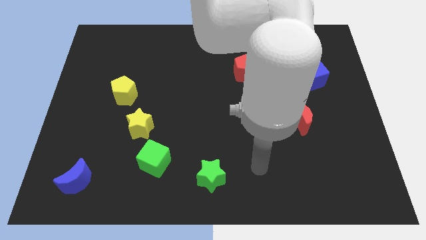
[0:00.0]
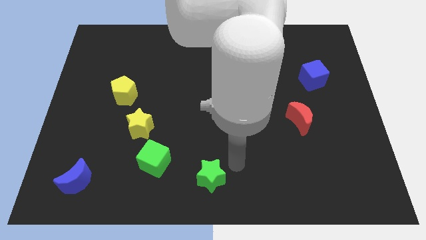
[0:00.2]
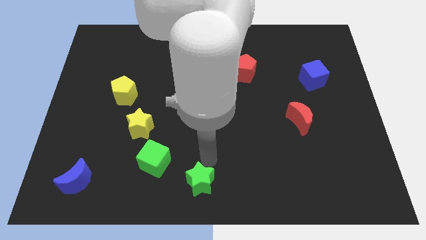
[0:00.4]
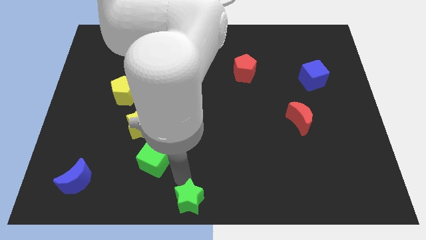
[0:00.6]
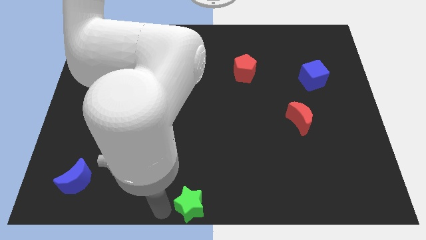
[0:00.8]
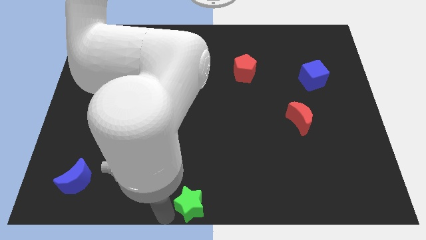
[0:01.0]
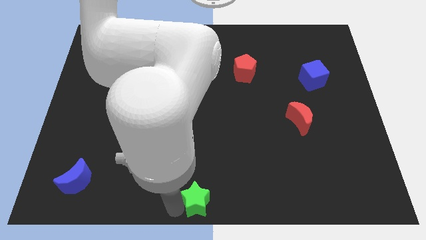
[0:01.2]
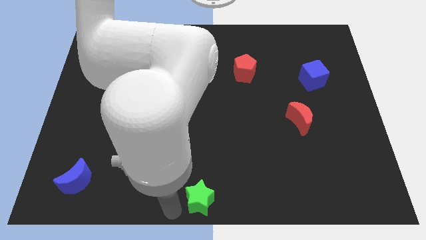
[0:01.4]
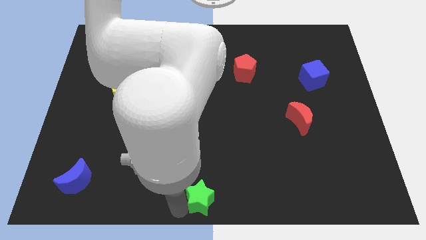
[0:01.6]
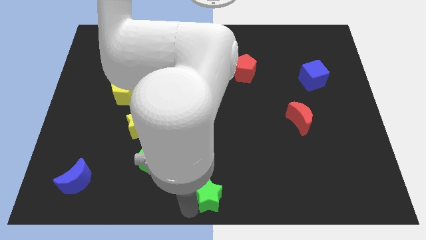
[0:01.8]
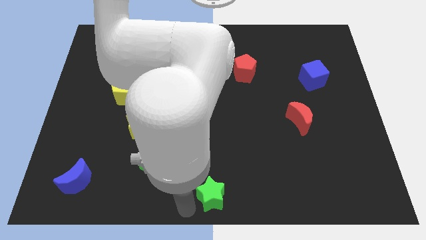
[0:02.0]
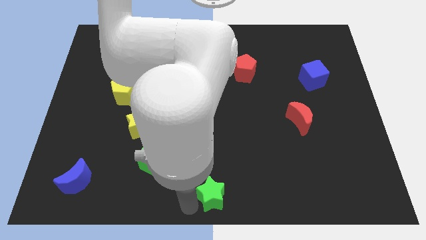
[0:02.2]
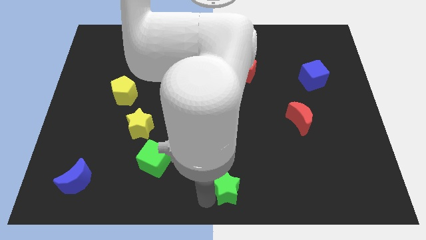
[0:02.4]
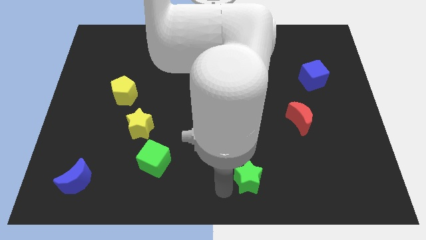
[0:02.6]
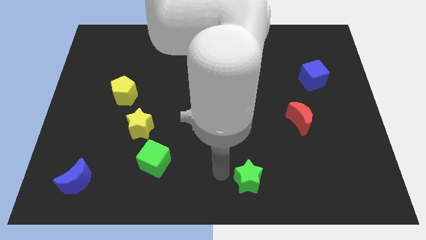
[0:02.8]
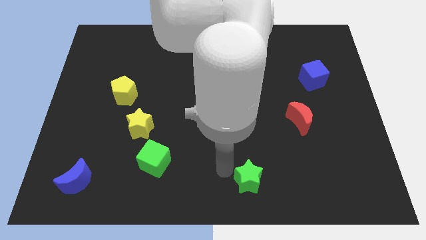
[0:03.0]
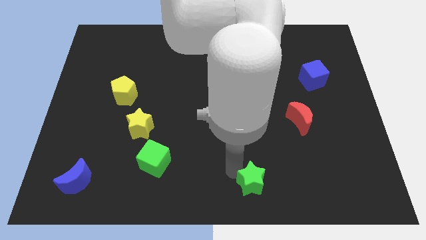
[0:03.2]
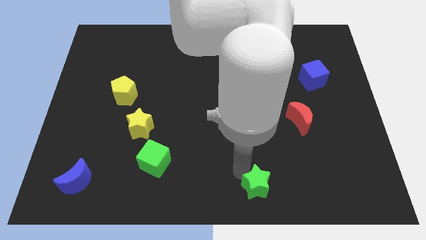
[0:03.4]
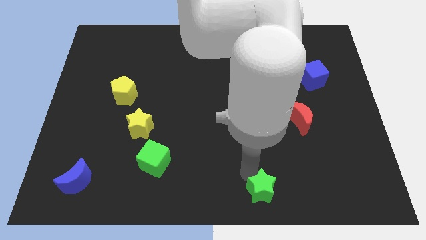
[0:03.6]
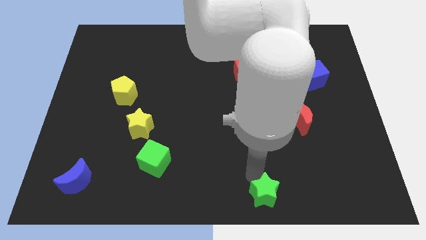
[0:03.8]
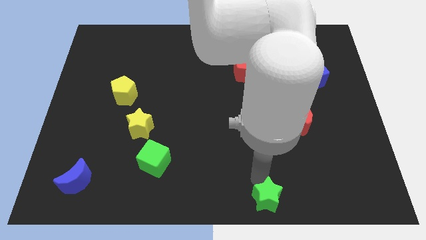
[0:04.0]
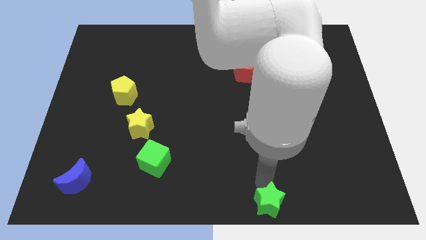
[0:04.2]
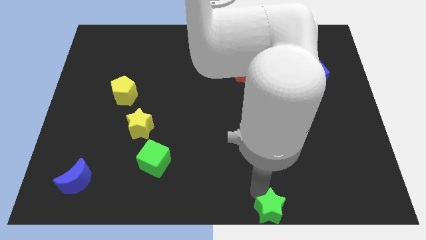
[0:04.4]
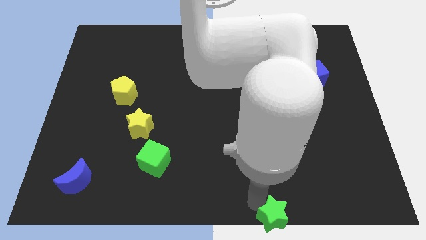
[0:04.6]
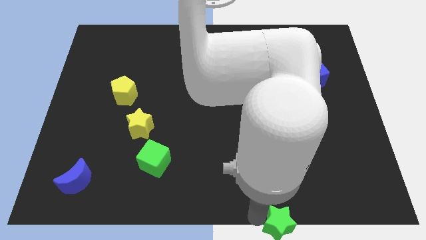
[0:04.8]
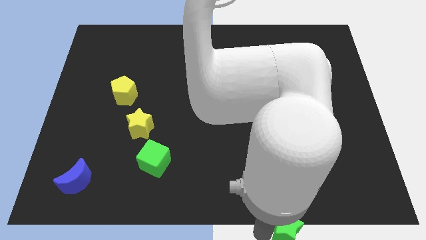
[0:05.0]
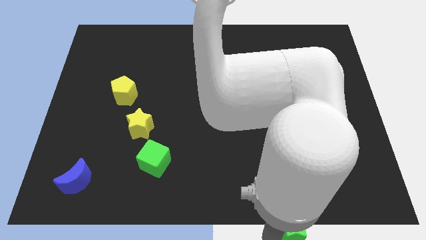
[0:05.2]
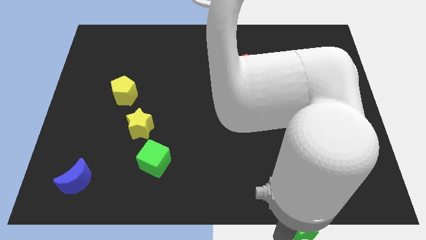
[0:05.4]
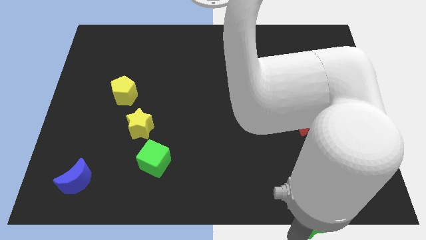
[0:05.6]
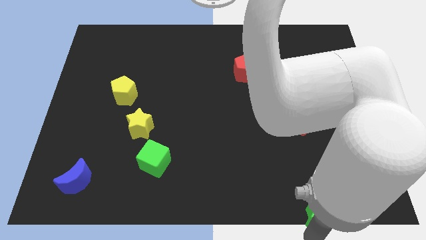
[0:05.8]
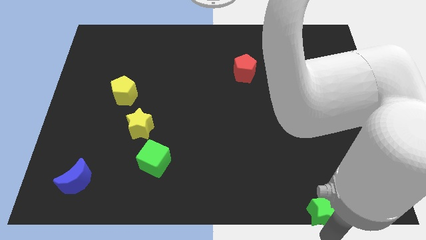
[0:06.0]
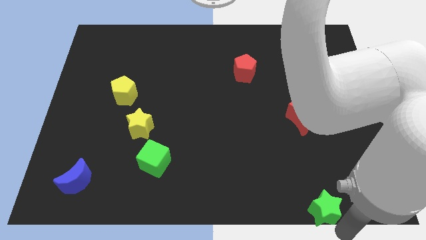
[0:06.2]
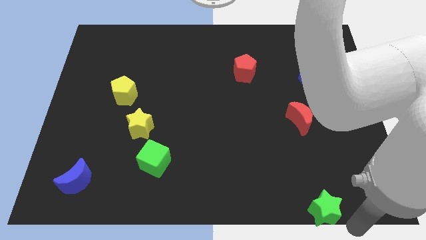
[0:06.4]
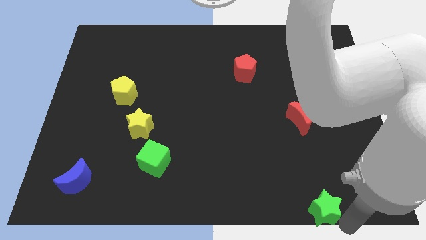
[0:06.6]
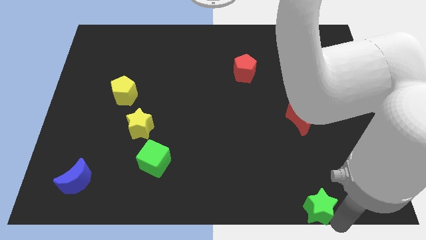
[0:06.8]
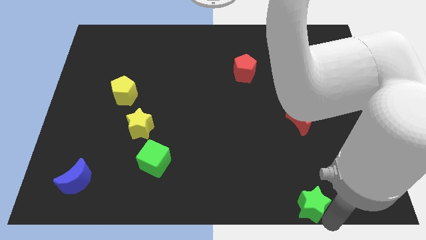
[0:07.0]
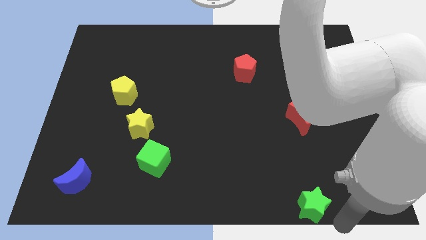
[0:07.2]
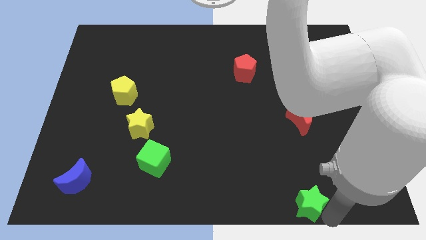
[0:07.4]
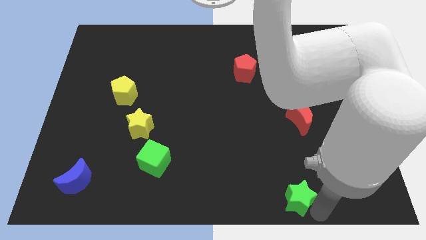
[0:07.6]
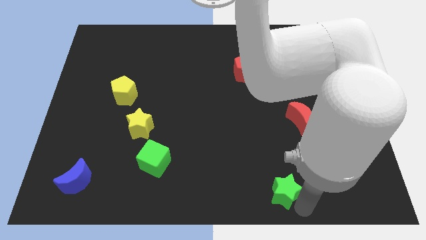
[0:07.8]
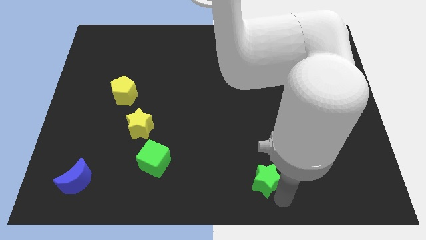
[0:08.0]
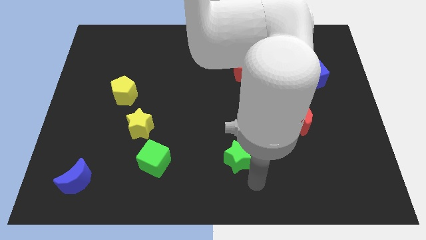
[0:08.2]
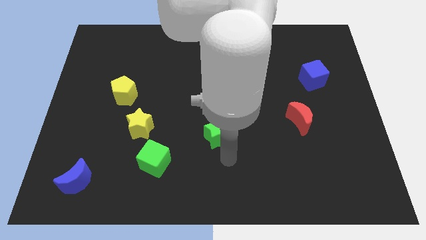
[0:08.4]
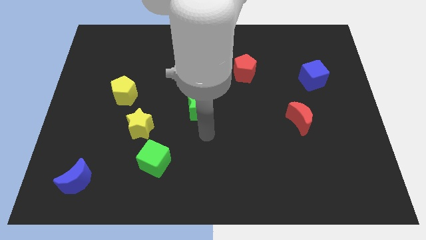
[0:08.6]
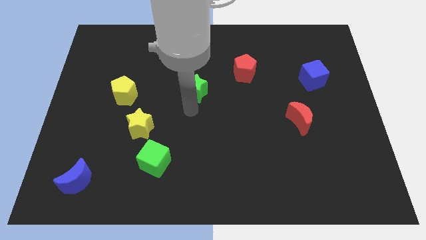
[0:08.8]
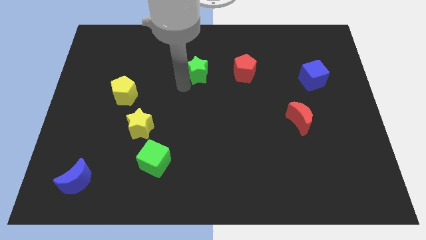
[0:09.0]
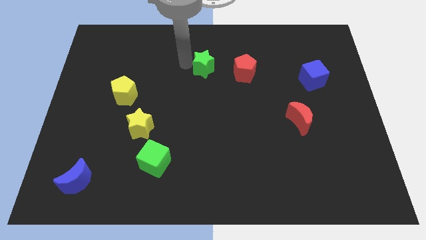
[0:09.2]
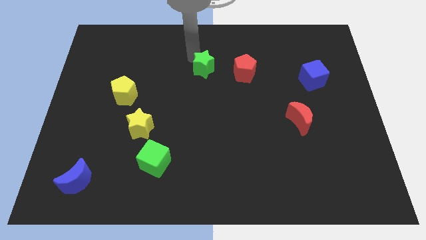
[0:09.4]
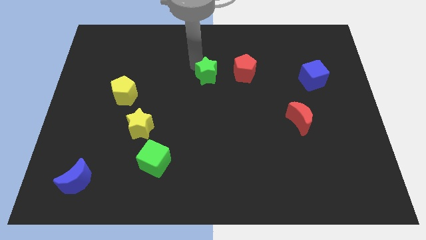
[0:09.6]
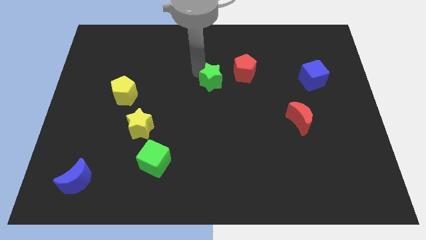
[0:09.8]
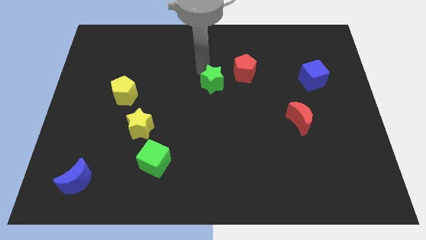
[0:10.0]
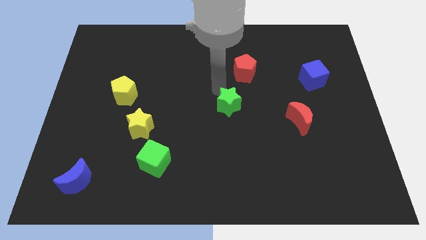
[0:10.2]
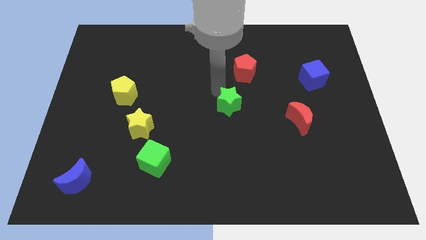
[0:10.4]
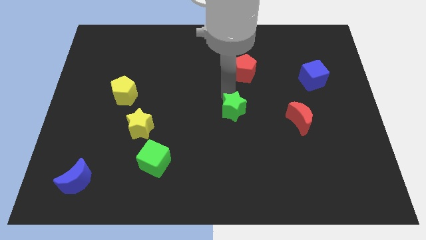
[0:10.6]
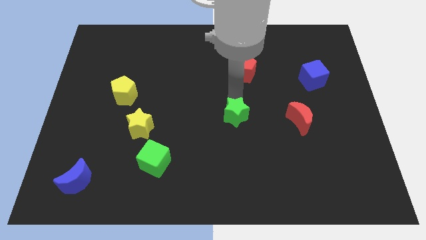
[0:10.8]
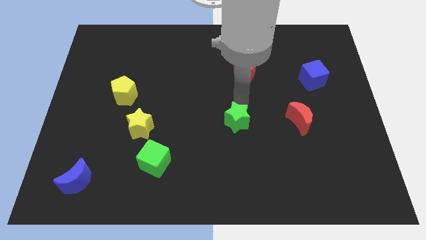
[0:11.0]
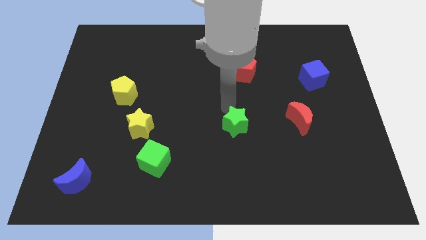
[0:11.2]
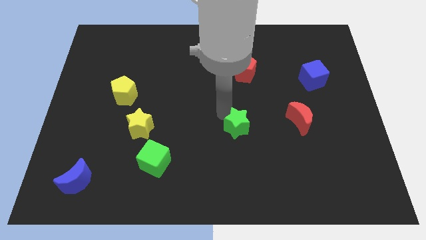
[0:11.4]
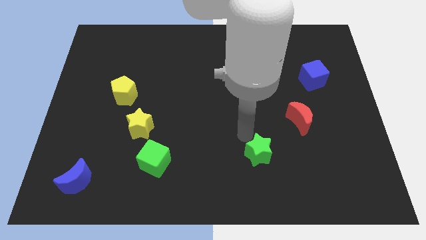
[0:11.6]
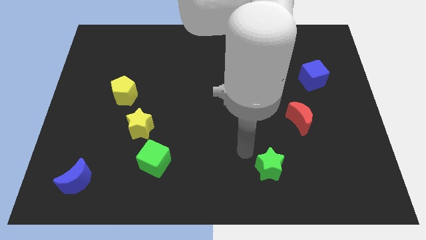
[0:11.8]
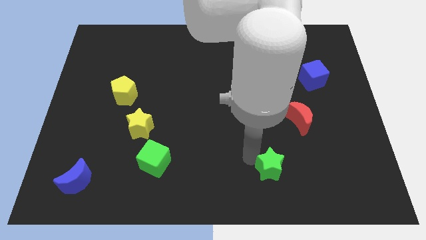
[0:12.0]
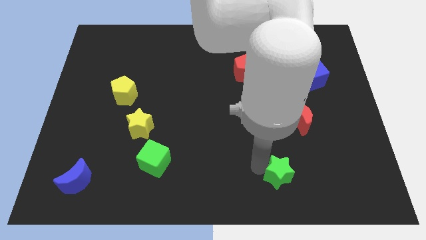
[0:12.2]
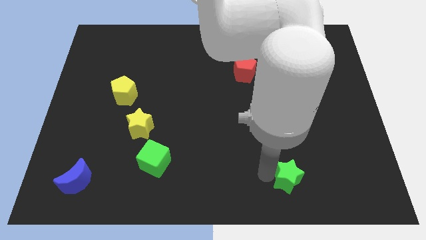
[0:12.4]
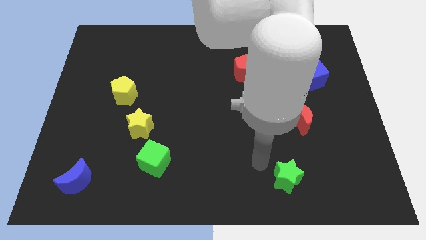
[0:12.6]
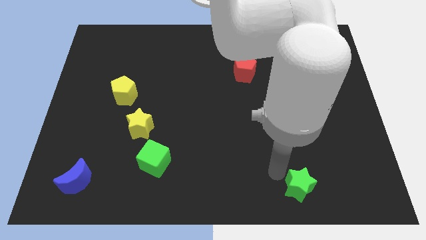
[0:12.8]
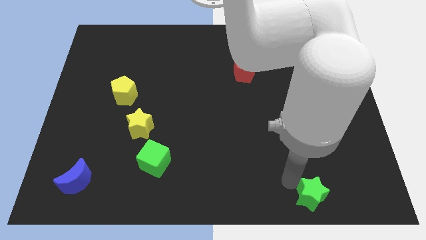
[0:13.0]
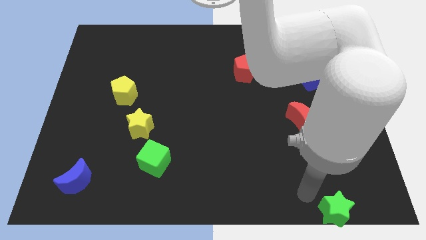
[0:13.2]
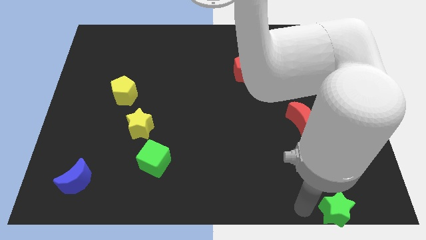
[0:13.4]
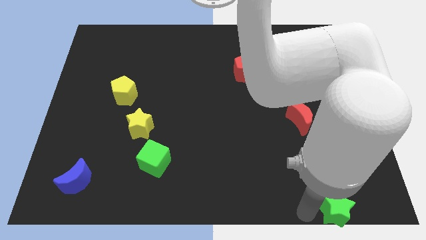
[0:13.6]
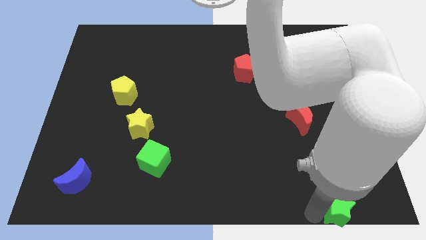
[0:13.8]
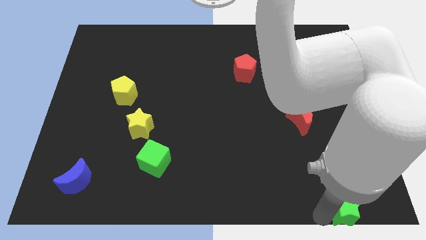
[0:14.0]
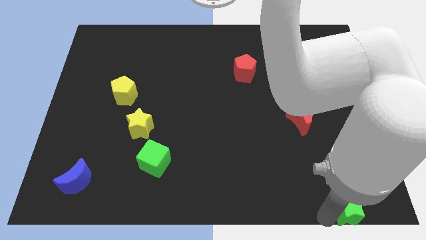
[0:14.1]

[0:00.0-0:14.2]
push the green star to the bottom right
